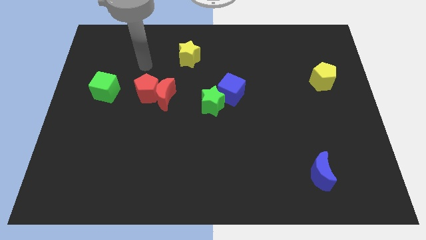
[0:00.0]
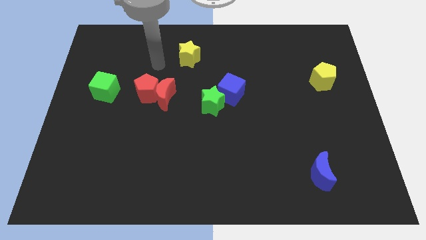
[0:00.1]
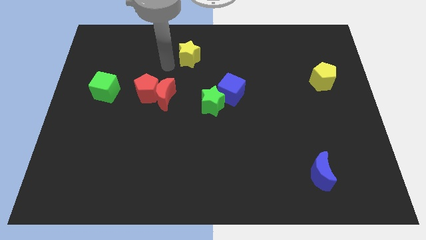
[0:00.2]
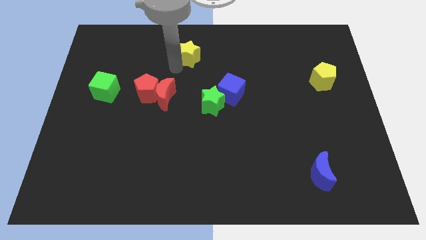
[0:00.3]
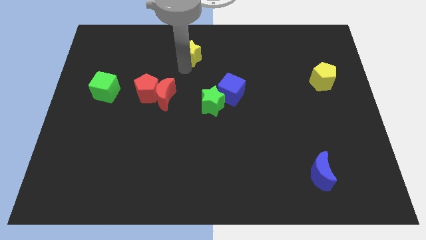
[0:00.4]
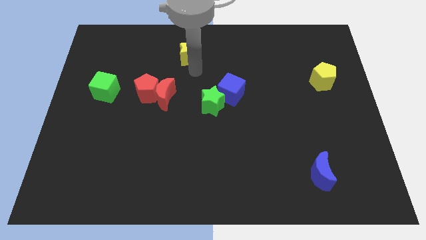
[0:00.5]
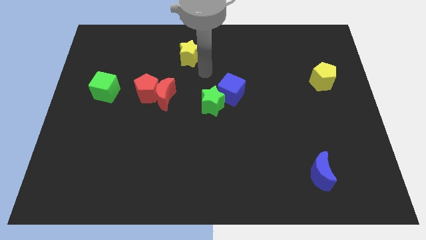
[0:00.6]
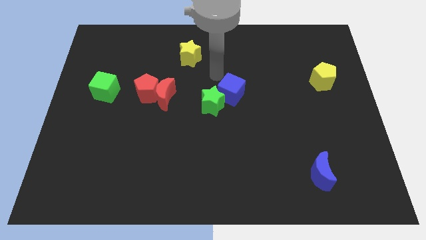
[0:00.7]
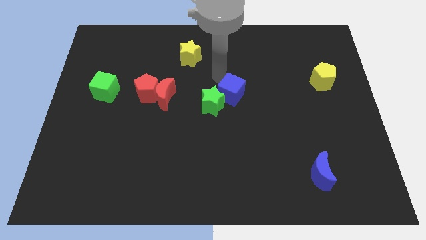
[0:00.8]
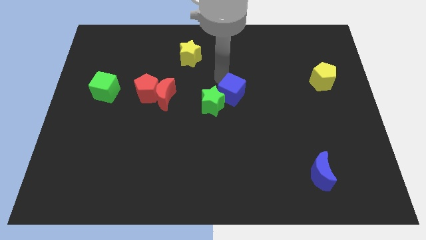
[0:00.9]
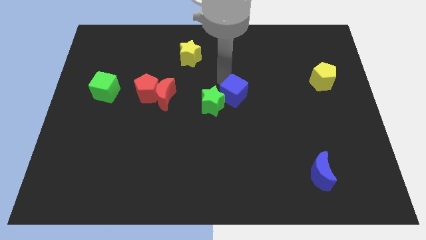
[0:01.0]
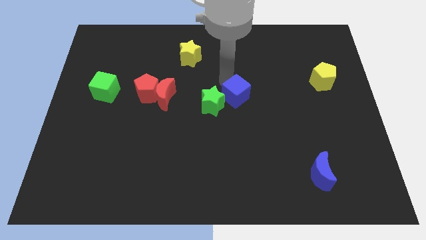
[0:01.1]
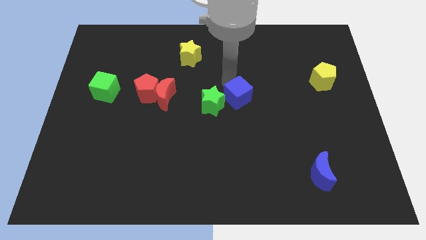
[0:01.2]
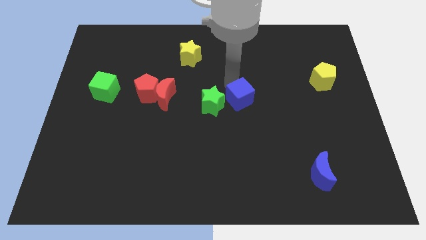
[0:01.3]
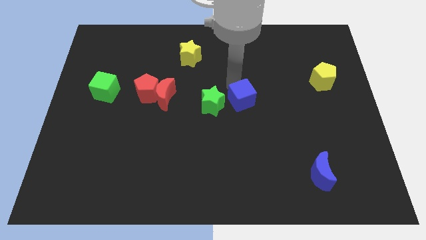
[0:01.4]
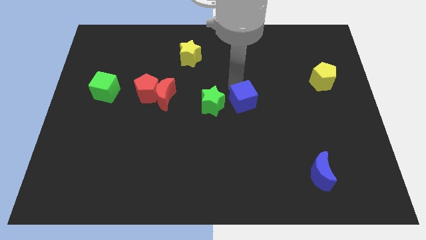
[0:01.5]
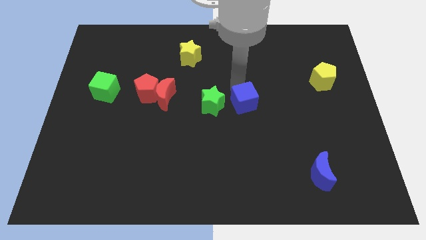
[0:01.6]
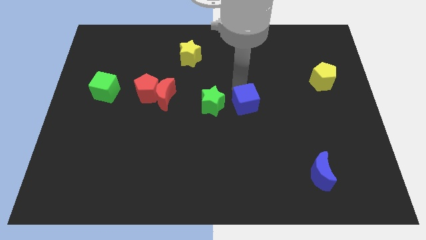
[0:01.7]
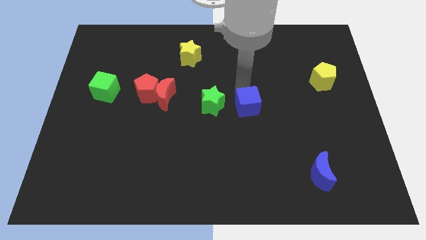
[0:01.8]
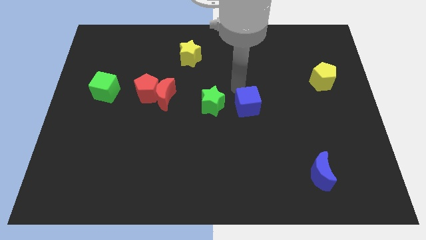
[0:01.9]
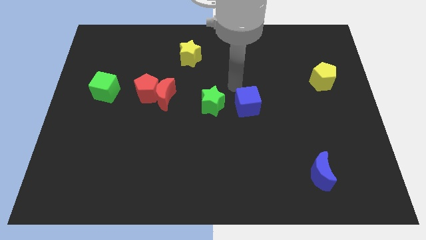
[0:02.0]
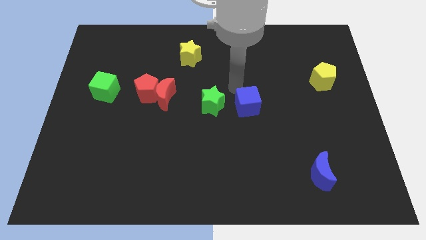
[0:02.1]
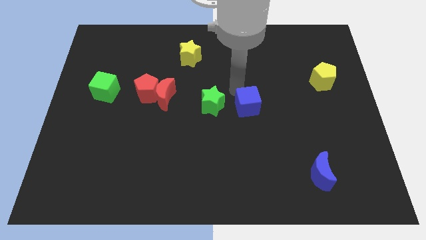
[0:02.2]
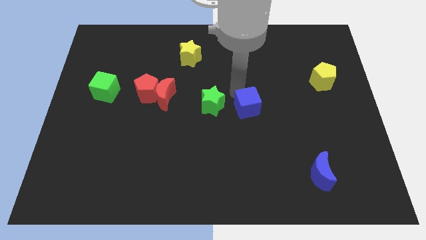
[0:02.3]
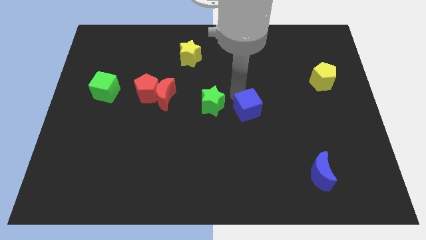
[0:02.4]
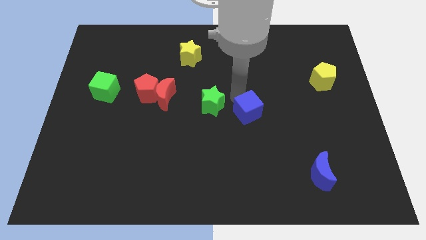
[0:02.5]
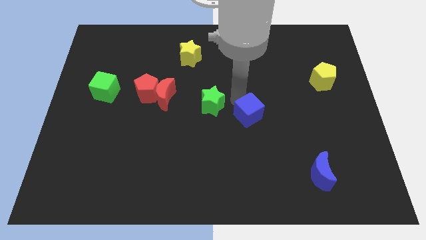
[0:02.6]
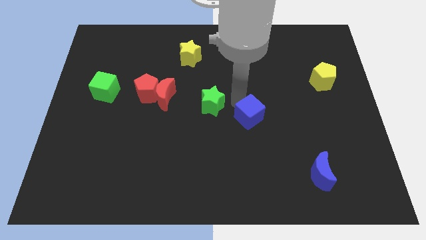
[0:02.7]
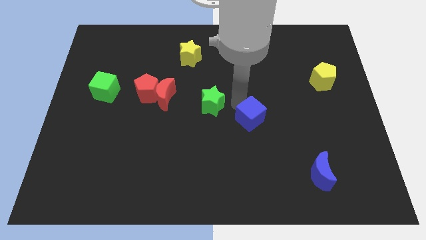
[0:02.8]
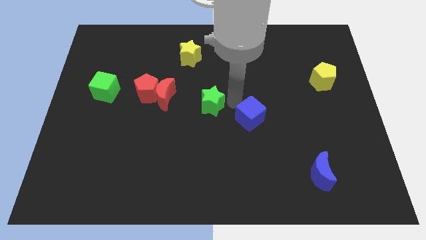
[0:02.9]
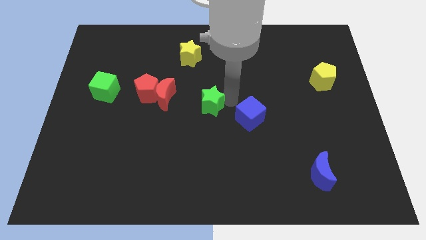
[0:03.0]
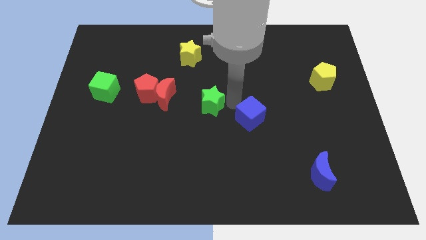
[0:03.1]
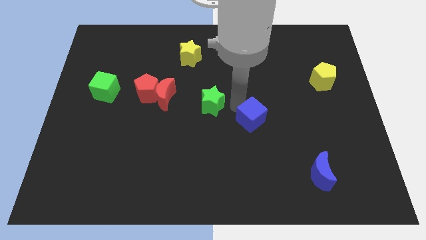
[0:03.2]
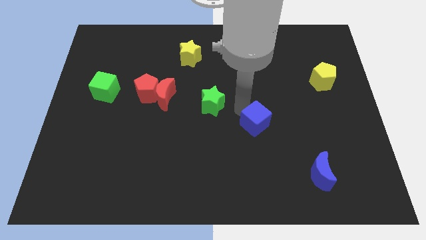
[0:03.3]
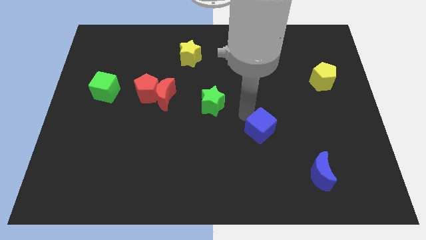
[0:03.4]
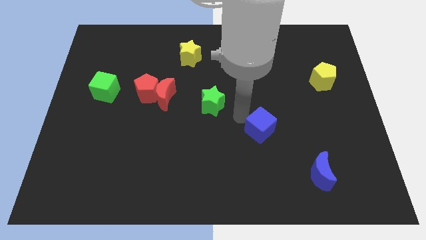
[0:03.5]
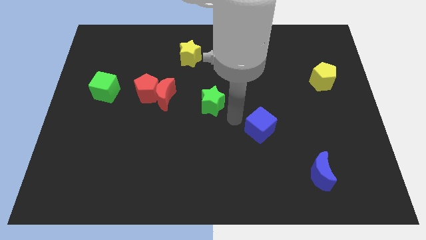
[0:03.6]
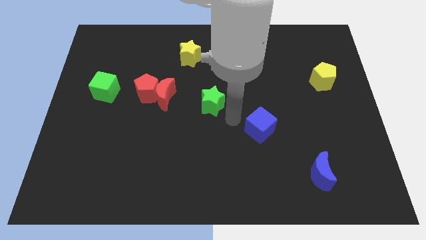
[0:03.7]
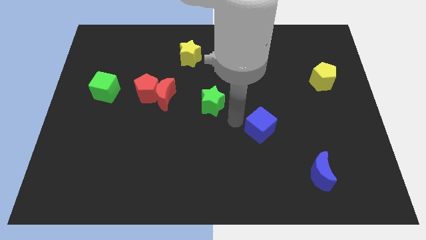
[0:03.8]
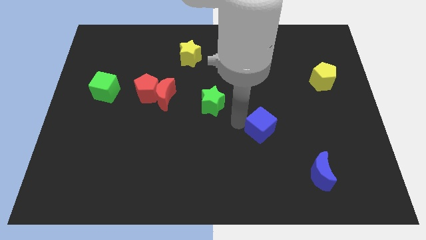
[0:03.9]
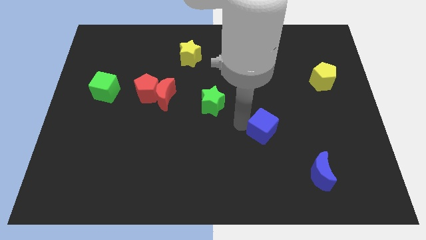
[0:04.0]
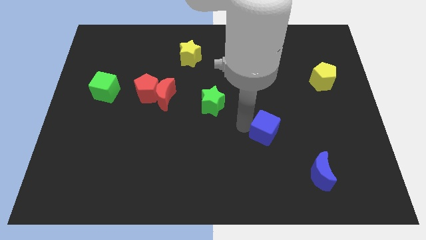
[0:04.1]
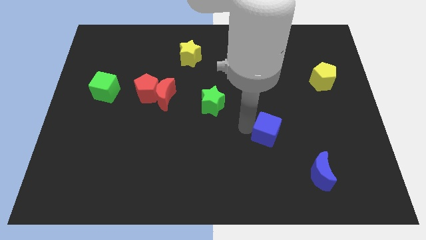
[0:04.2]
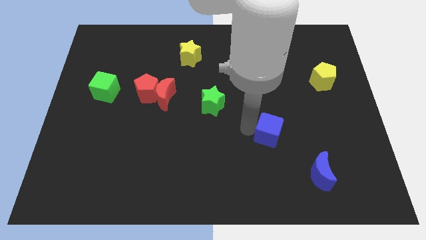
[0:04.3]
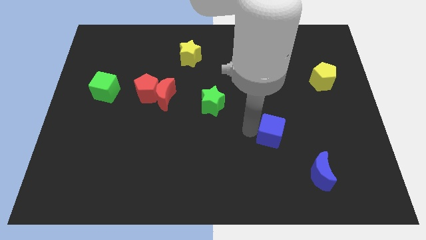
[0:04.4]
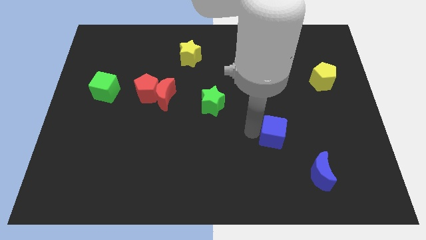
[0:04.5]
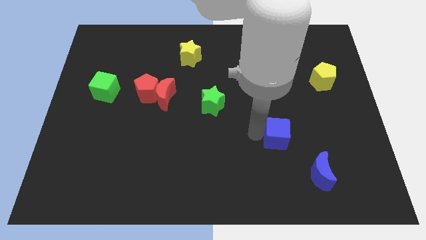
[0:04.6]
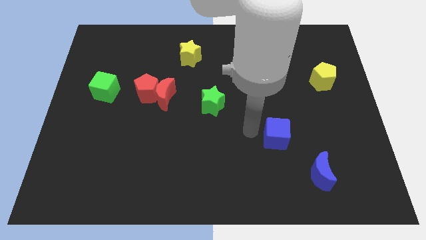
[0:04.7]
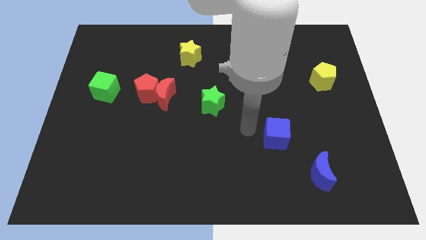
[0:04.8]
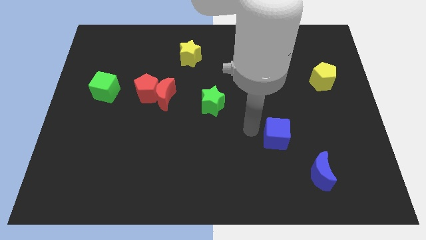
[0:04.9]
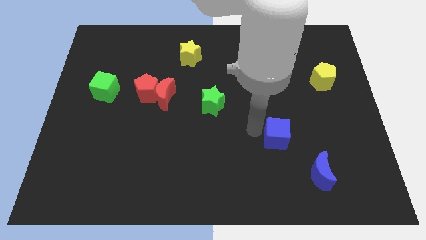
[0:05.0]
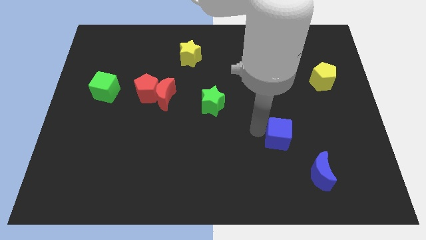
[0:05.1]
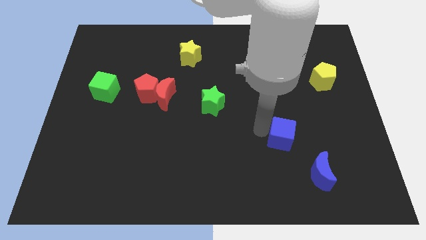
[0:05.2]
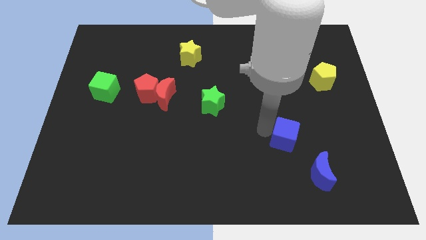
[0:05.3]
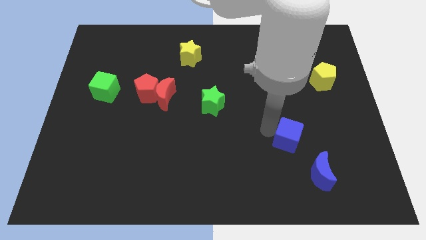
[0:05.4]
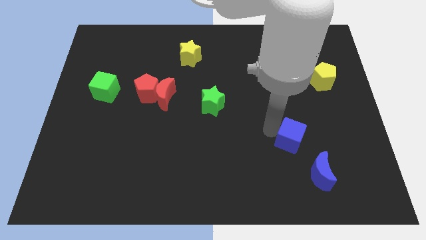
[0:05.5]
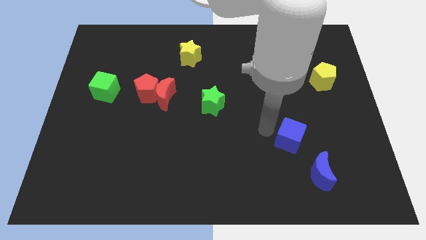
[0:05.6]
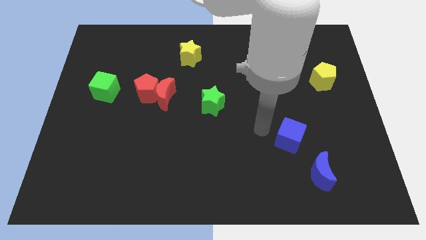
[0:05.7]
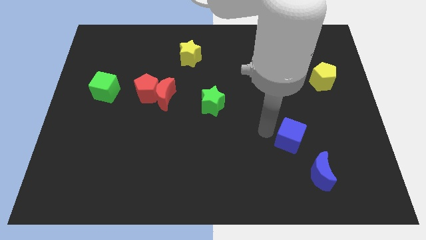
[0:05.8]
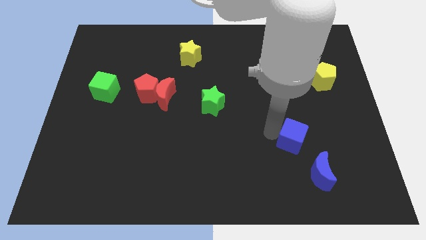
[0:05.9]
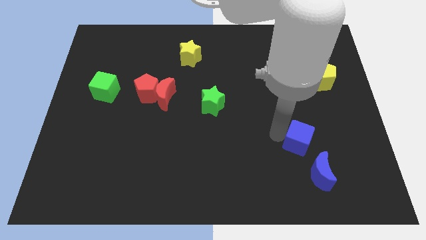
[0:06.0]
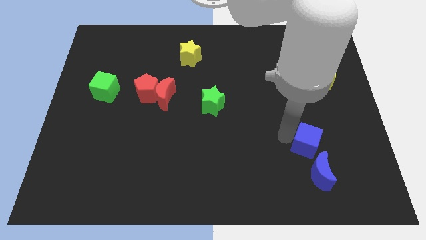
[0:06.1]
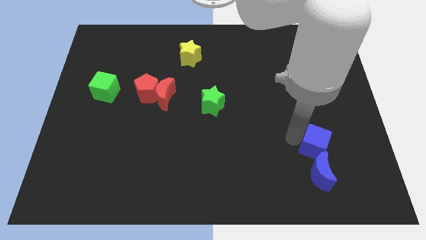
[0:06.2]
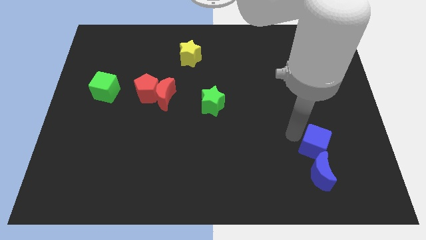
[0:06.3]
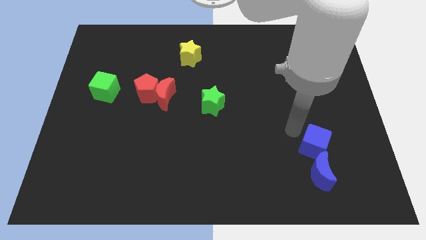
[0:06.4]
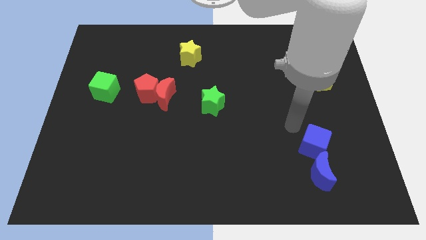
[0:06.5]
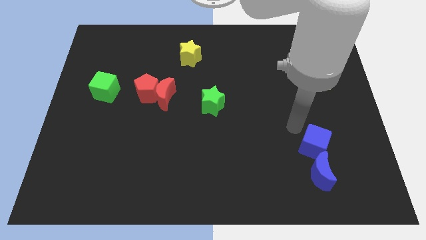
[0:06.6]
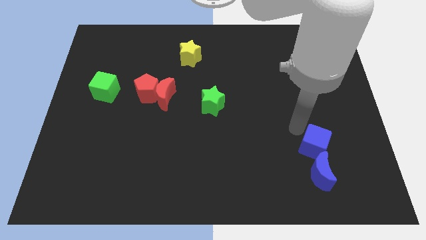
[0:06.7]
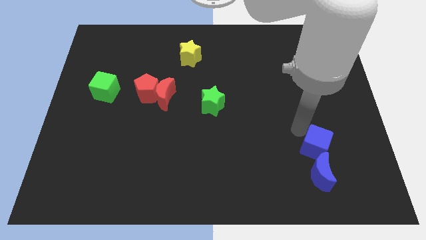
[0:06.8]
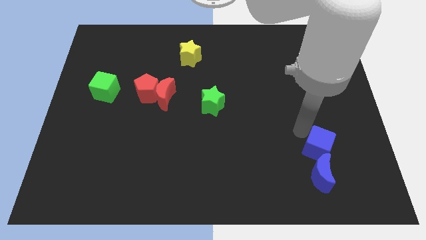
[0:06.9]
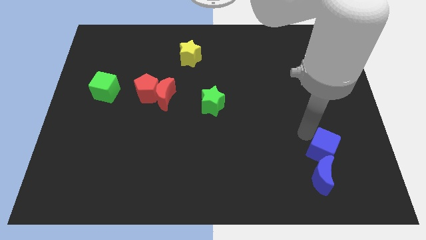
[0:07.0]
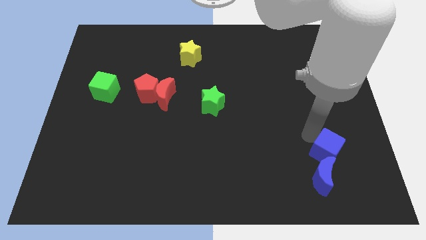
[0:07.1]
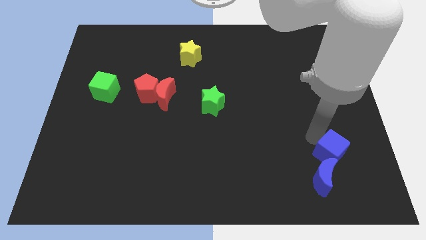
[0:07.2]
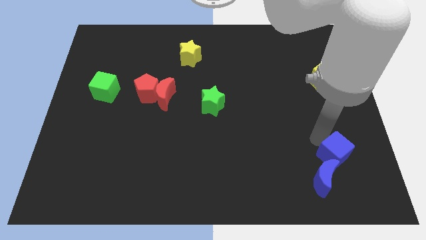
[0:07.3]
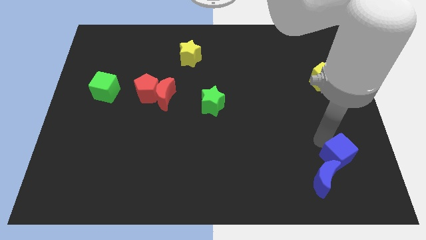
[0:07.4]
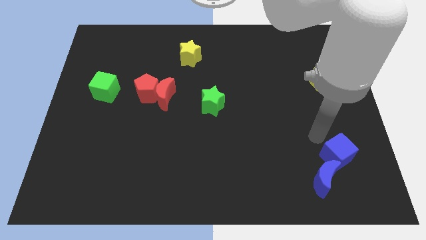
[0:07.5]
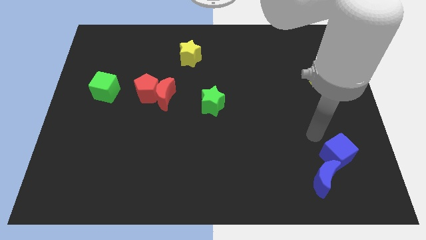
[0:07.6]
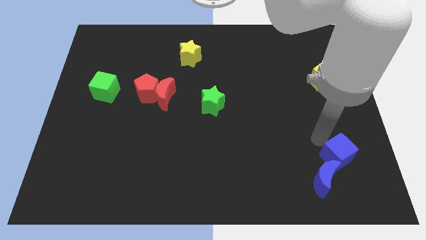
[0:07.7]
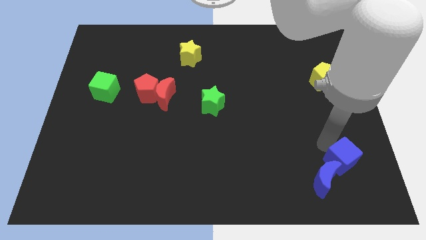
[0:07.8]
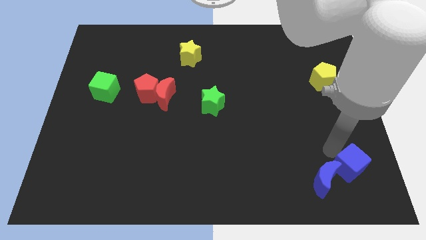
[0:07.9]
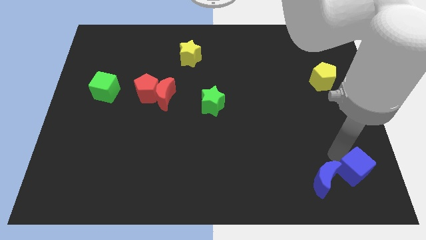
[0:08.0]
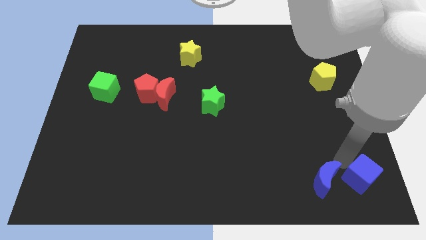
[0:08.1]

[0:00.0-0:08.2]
slide the blue cube to the bottom right
